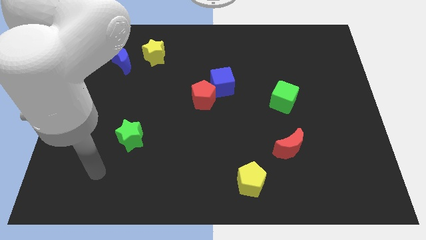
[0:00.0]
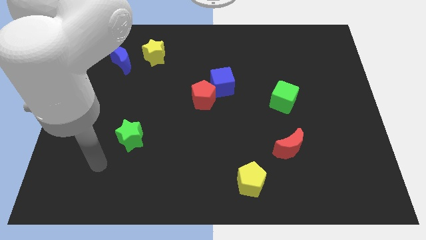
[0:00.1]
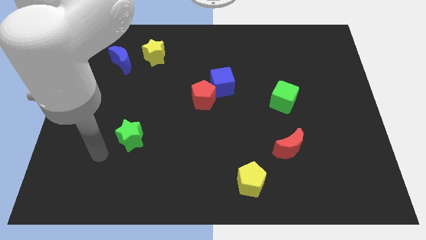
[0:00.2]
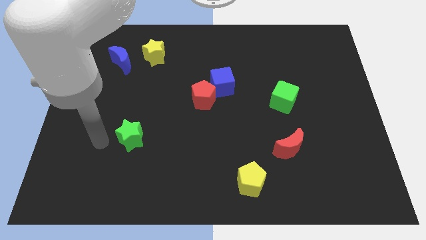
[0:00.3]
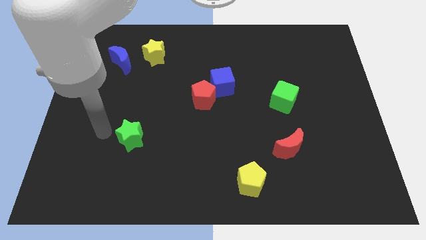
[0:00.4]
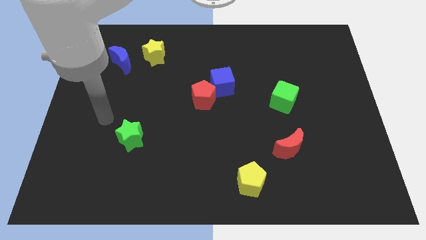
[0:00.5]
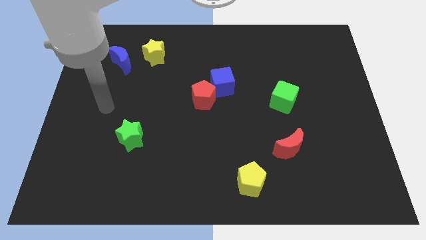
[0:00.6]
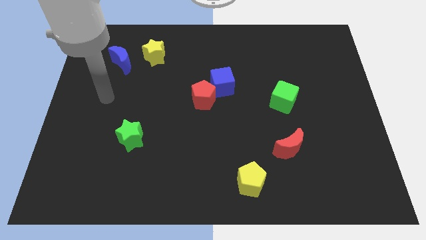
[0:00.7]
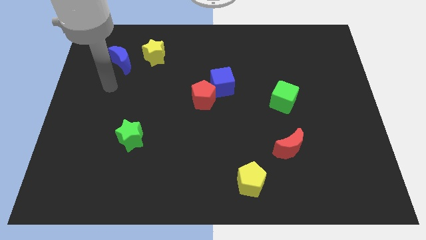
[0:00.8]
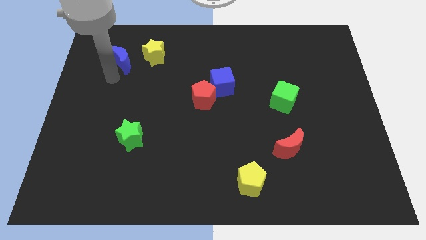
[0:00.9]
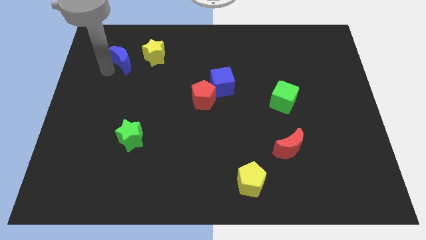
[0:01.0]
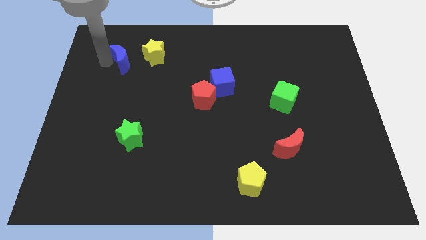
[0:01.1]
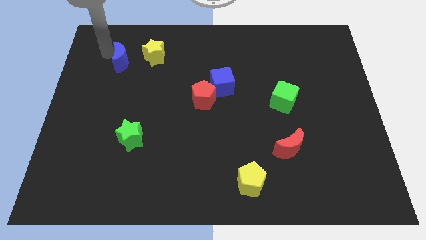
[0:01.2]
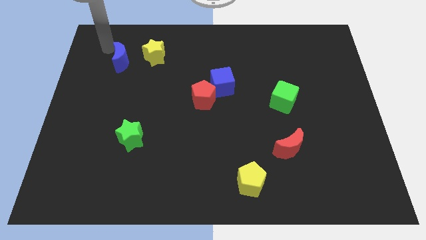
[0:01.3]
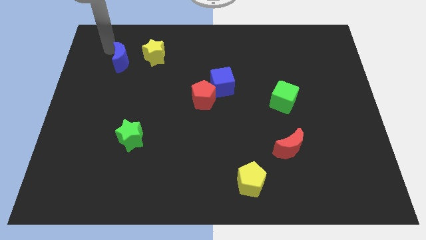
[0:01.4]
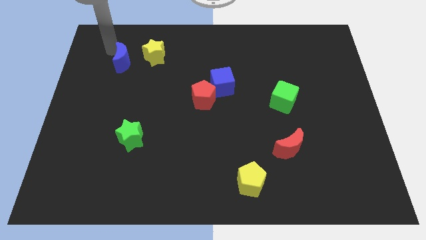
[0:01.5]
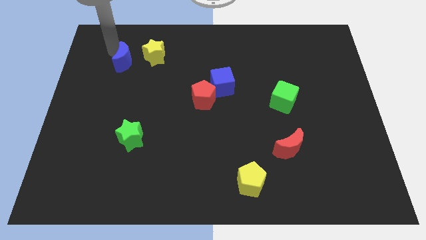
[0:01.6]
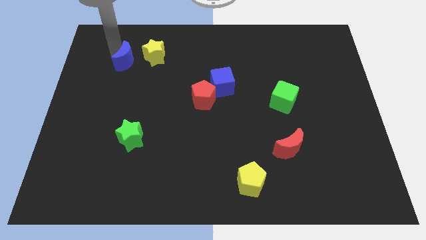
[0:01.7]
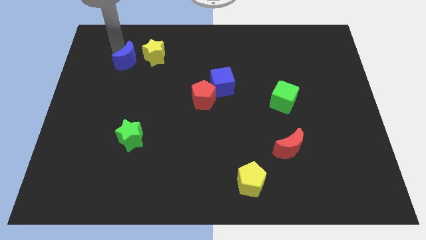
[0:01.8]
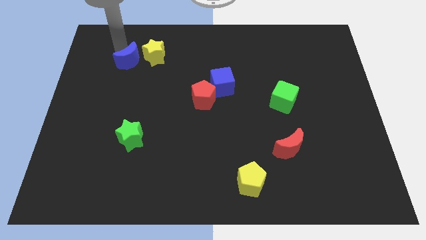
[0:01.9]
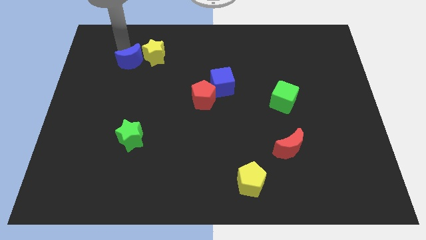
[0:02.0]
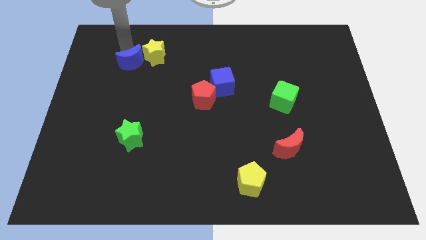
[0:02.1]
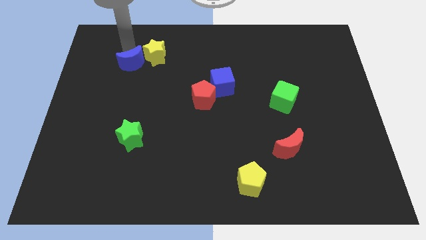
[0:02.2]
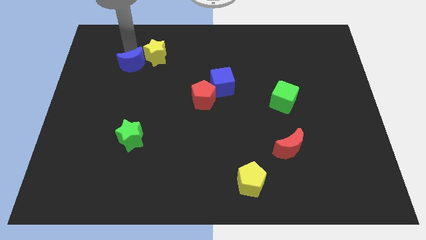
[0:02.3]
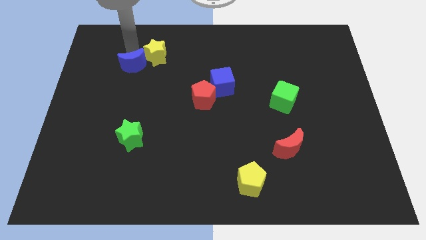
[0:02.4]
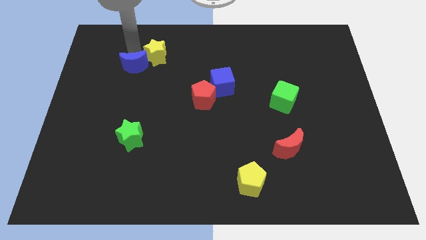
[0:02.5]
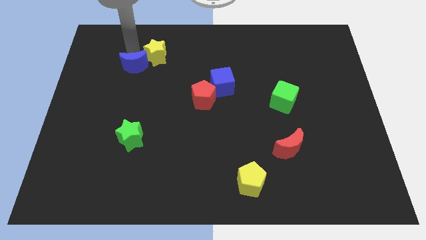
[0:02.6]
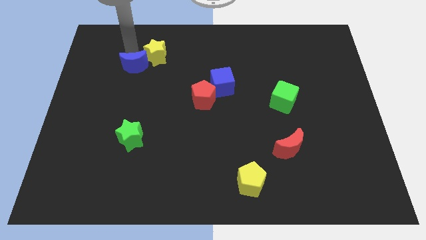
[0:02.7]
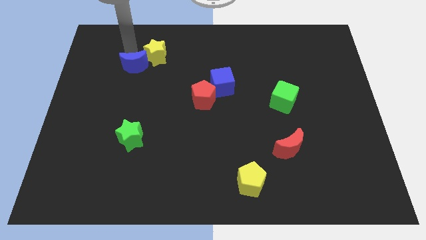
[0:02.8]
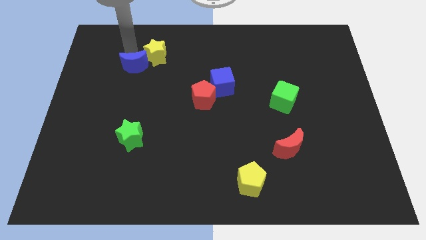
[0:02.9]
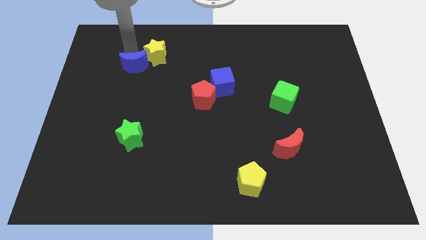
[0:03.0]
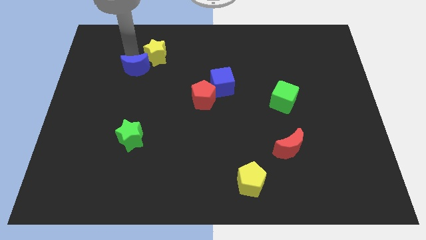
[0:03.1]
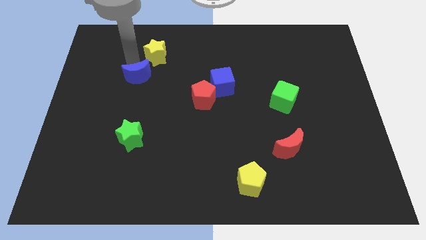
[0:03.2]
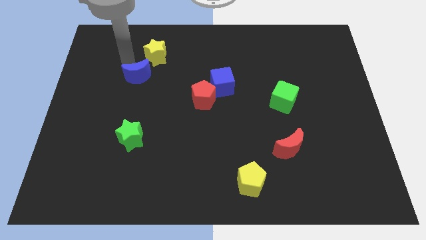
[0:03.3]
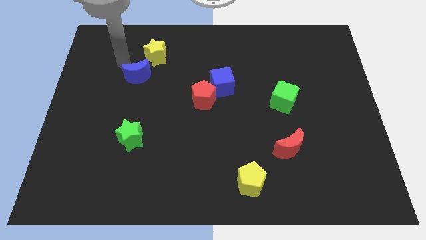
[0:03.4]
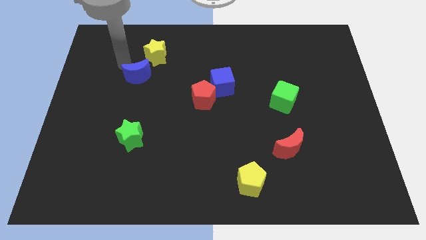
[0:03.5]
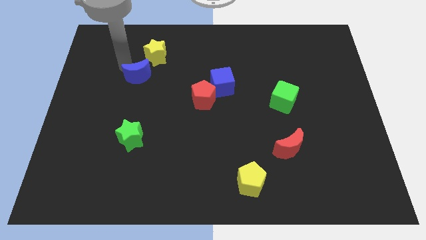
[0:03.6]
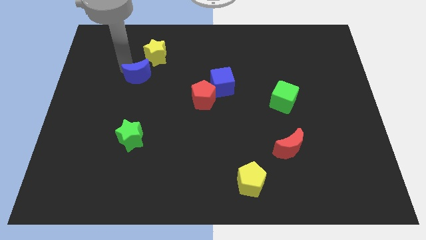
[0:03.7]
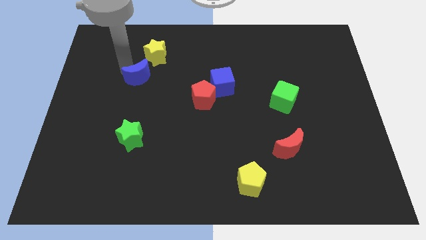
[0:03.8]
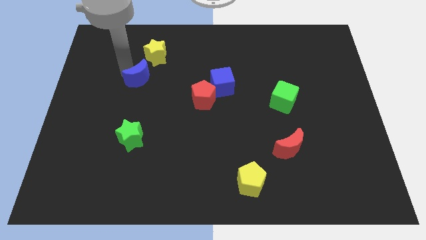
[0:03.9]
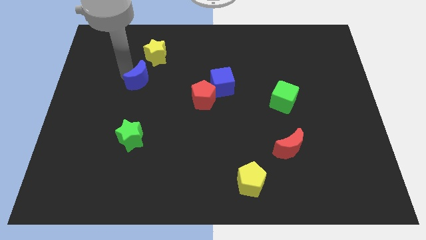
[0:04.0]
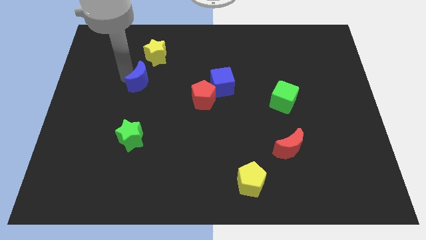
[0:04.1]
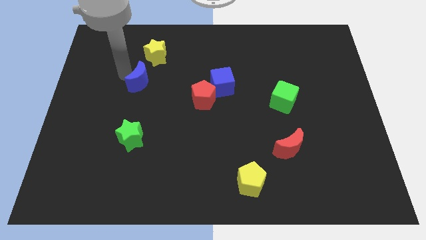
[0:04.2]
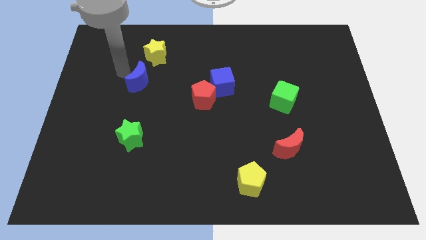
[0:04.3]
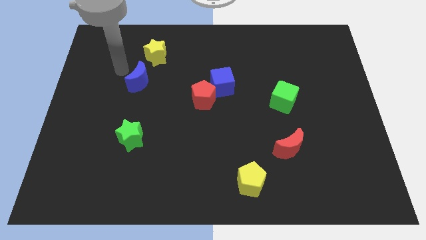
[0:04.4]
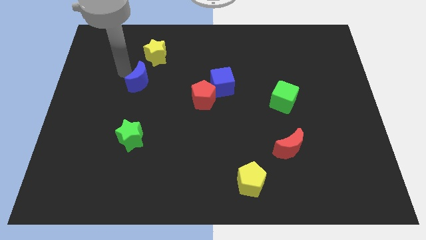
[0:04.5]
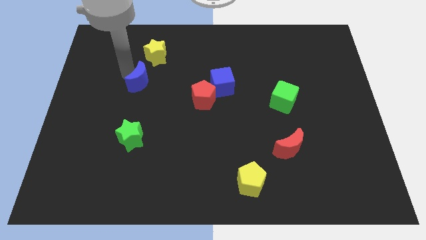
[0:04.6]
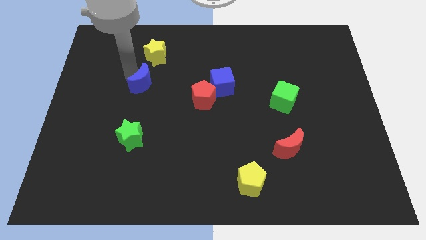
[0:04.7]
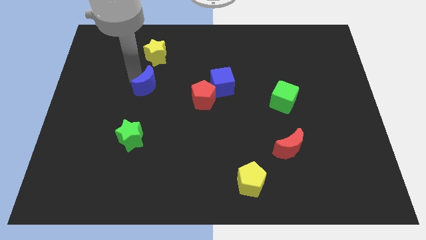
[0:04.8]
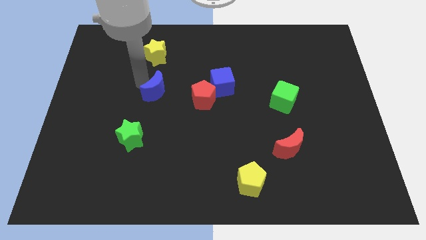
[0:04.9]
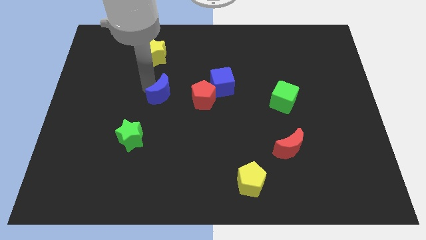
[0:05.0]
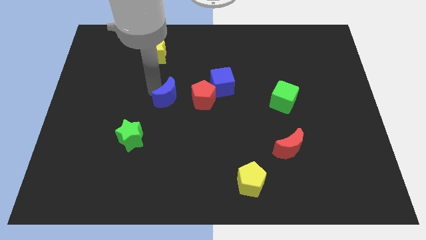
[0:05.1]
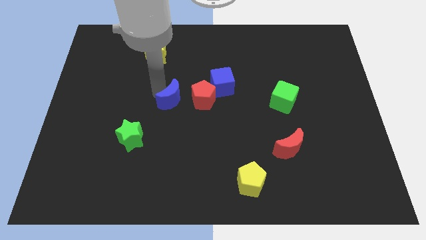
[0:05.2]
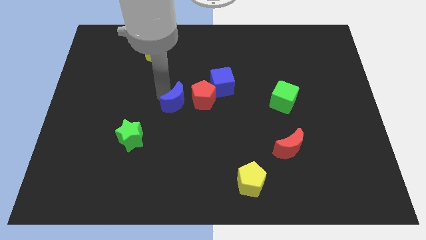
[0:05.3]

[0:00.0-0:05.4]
push the blue moon downwards and then to the right

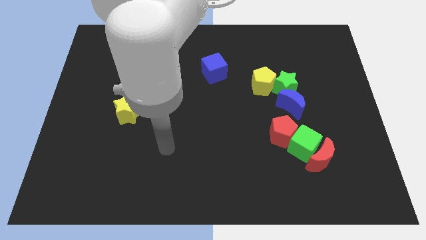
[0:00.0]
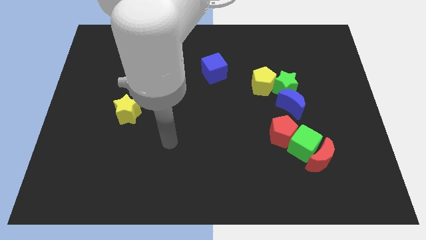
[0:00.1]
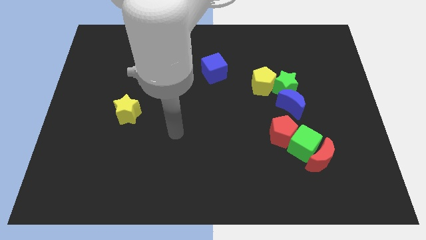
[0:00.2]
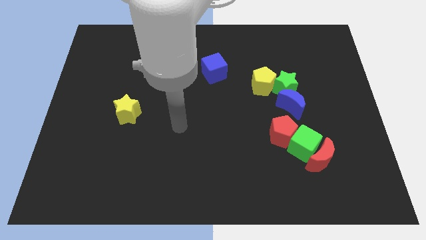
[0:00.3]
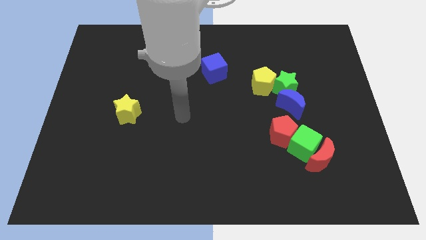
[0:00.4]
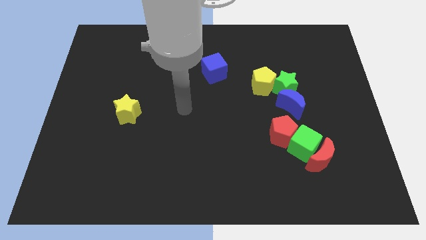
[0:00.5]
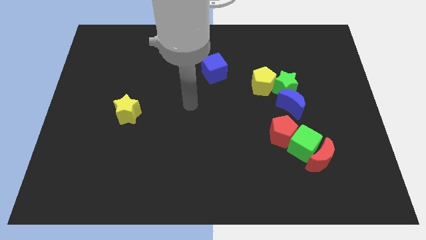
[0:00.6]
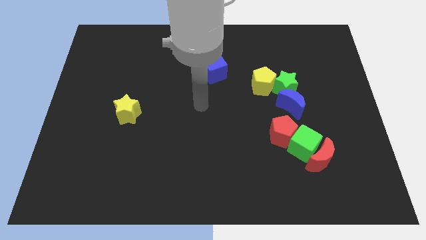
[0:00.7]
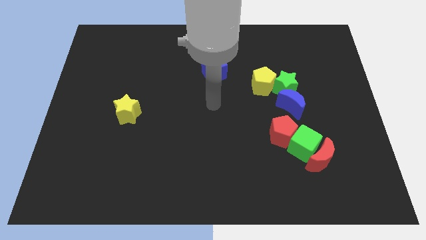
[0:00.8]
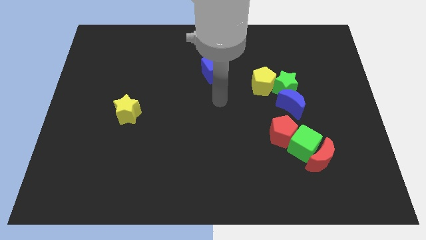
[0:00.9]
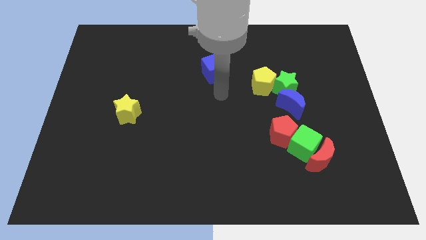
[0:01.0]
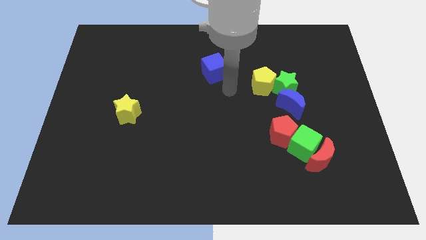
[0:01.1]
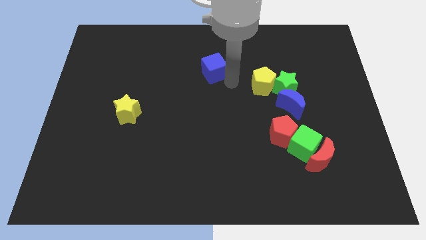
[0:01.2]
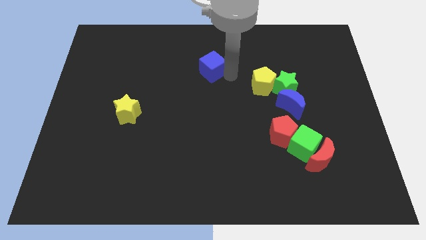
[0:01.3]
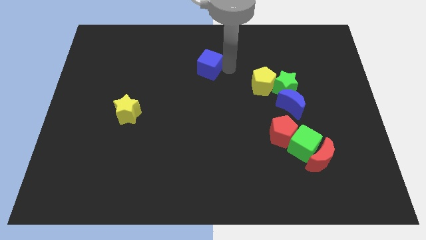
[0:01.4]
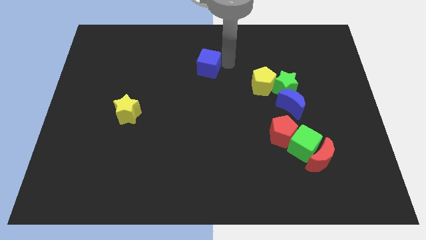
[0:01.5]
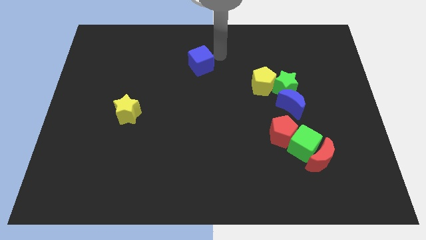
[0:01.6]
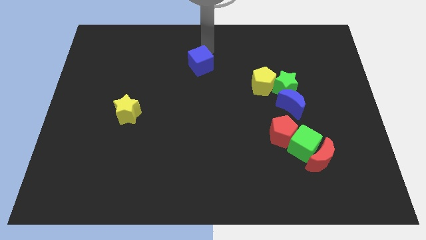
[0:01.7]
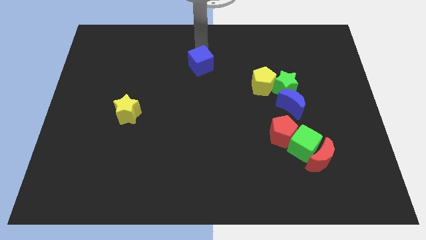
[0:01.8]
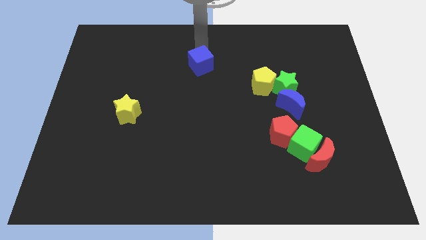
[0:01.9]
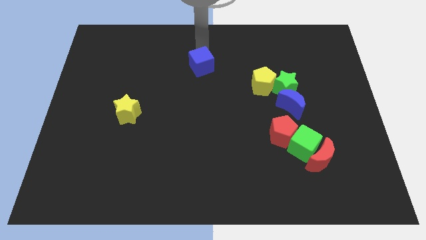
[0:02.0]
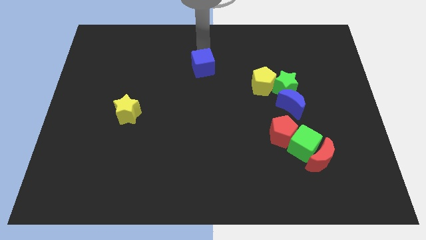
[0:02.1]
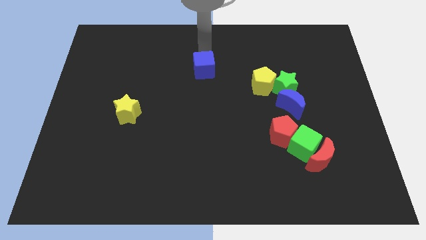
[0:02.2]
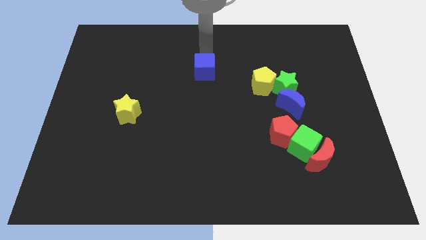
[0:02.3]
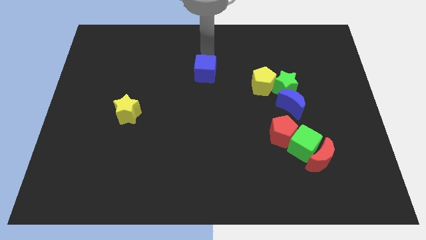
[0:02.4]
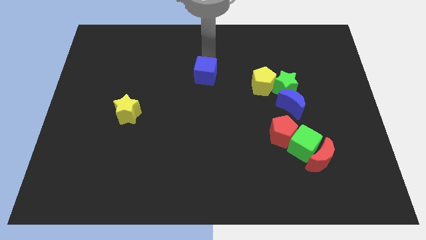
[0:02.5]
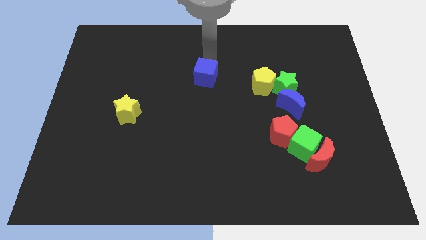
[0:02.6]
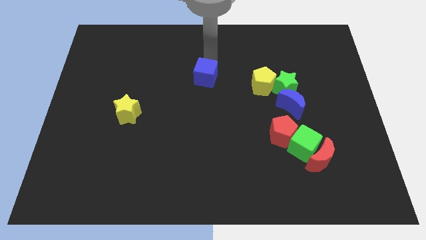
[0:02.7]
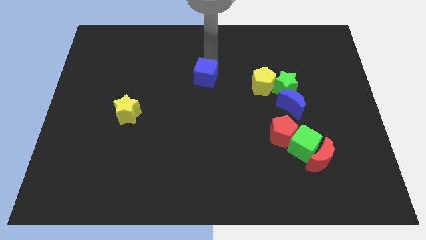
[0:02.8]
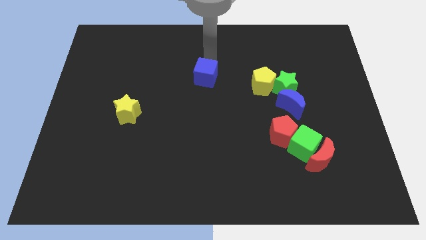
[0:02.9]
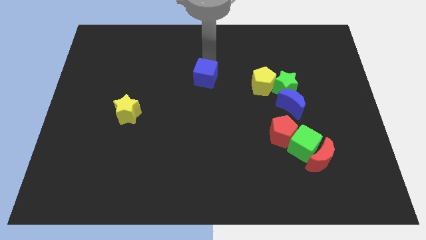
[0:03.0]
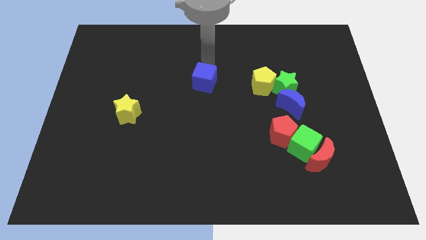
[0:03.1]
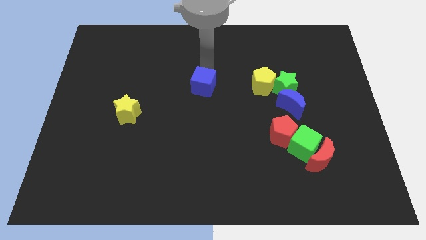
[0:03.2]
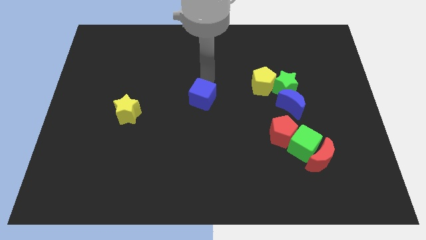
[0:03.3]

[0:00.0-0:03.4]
slightly push the blue cube diagonally downwards and left
